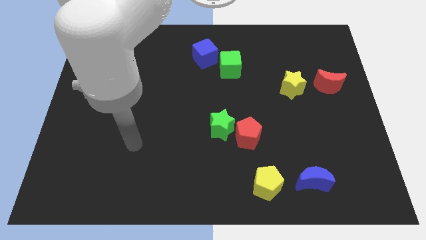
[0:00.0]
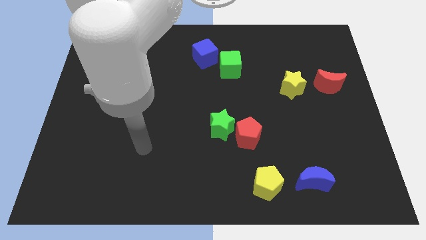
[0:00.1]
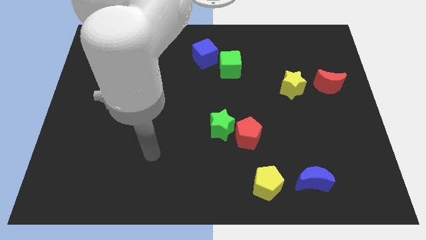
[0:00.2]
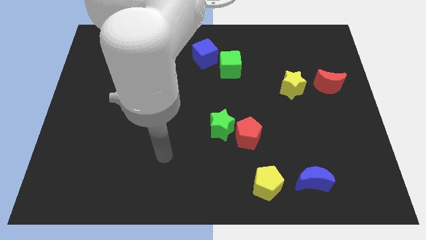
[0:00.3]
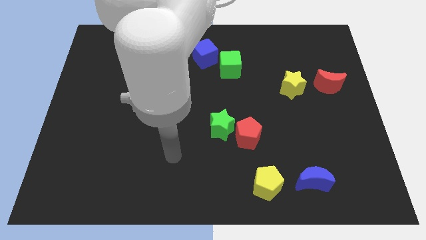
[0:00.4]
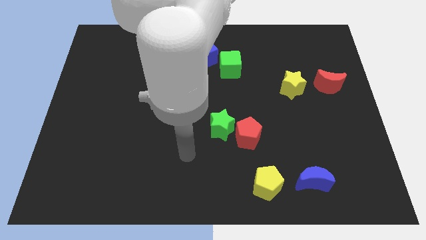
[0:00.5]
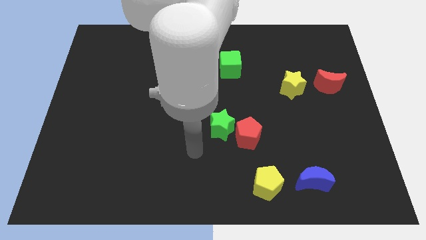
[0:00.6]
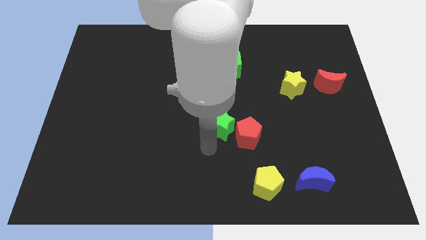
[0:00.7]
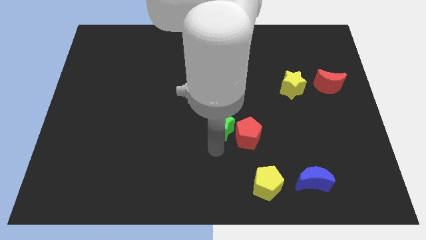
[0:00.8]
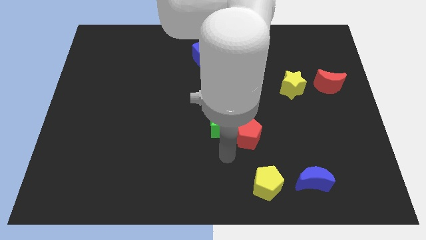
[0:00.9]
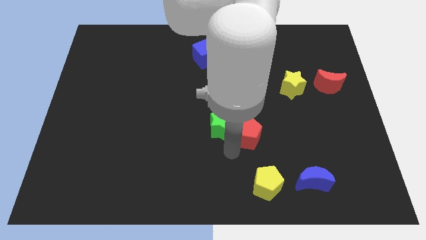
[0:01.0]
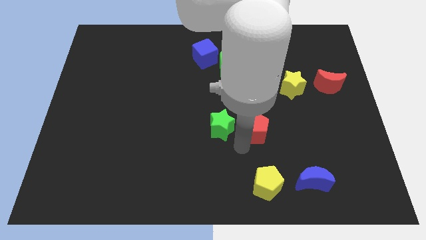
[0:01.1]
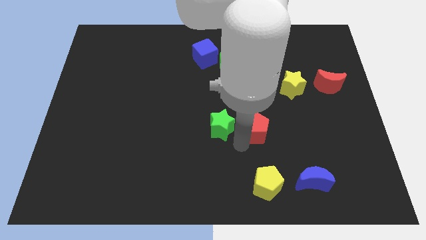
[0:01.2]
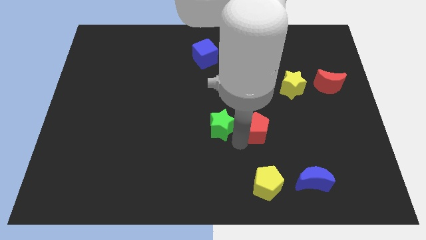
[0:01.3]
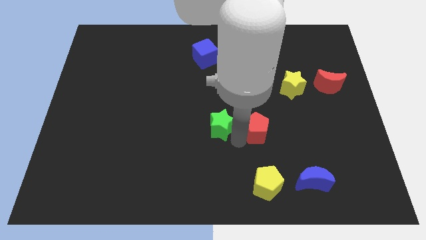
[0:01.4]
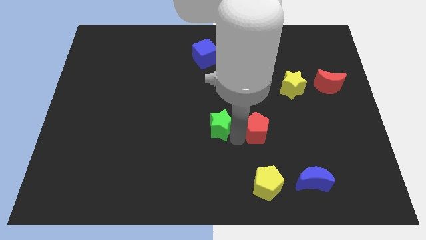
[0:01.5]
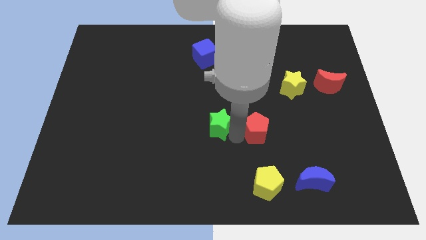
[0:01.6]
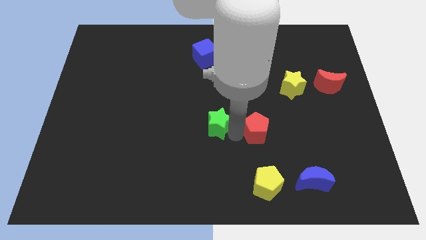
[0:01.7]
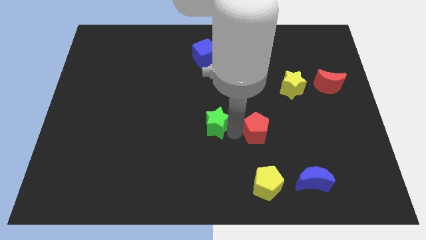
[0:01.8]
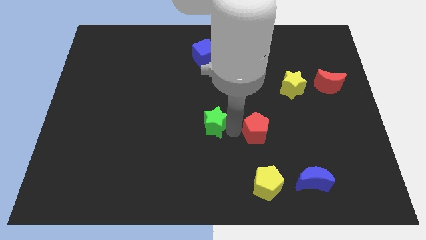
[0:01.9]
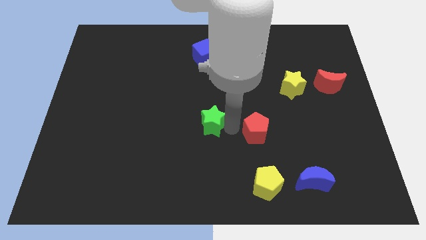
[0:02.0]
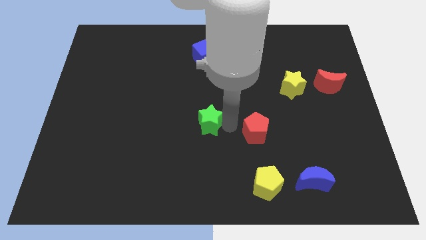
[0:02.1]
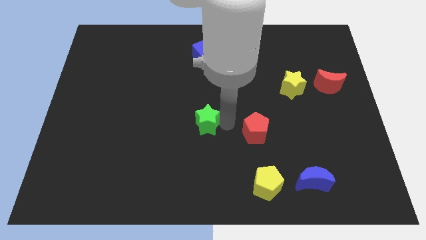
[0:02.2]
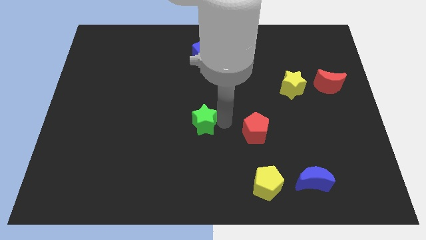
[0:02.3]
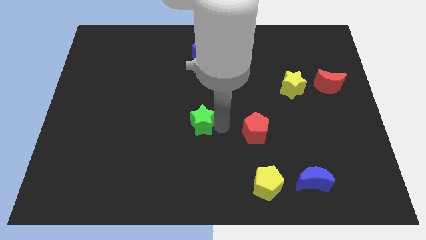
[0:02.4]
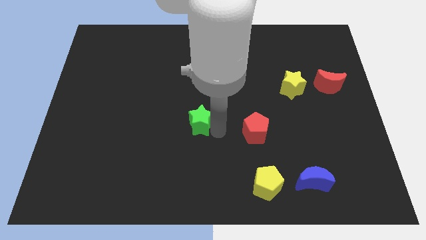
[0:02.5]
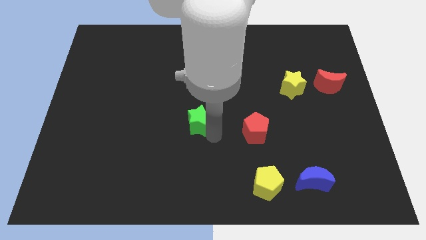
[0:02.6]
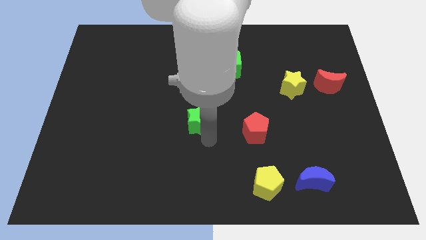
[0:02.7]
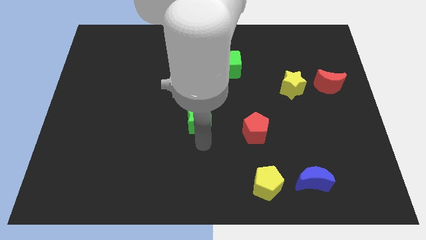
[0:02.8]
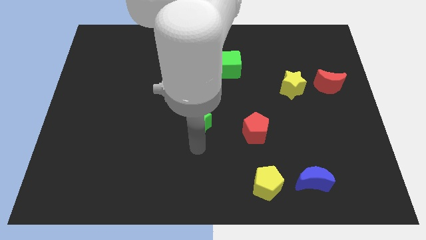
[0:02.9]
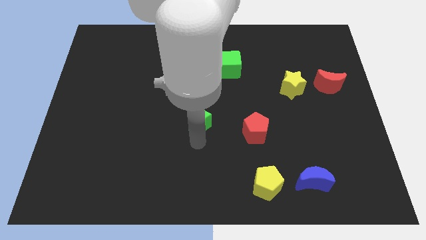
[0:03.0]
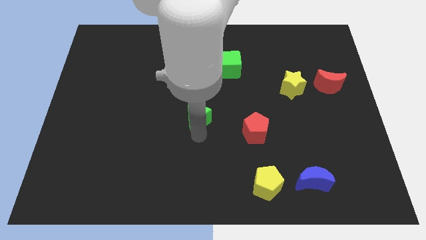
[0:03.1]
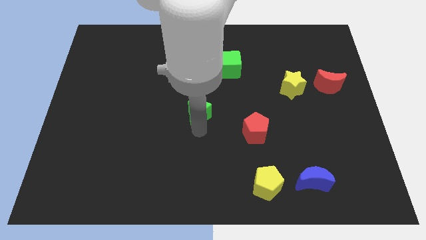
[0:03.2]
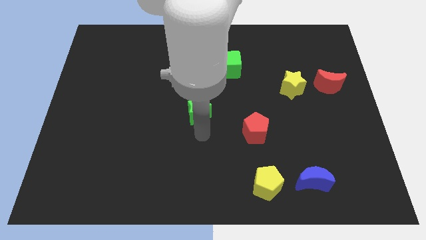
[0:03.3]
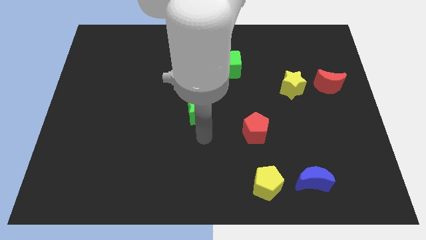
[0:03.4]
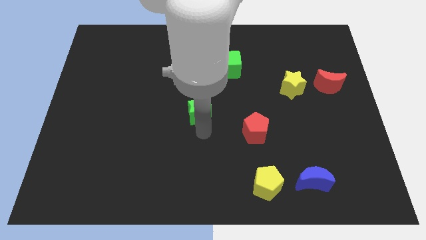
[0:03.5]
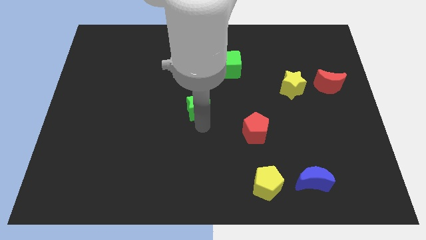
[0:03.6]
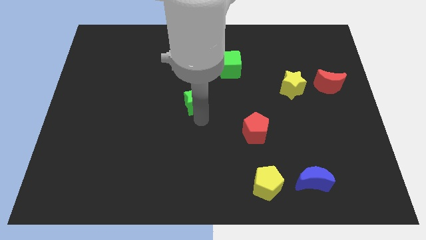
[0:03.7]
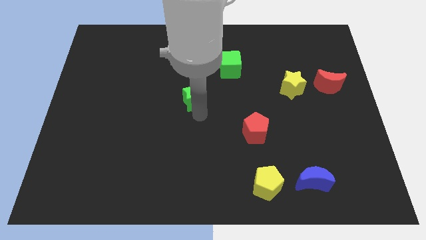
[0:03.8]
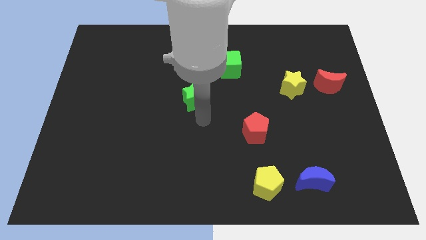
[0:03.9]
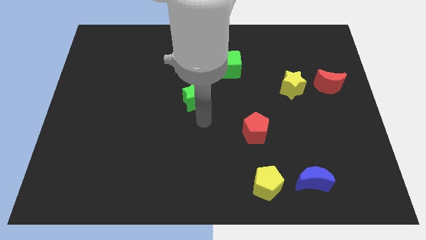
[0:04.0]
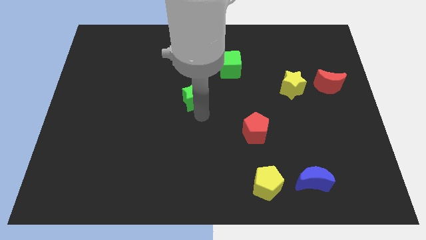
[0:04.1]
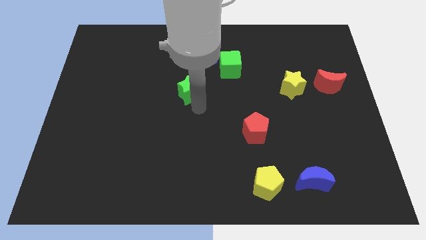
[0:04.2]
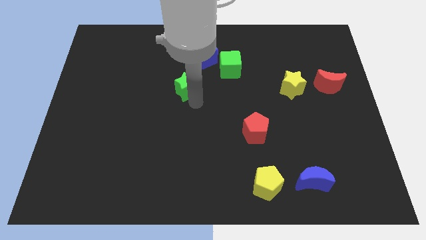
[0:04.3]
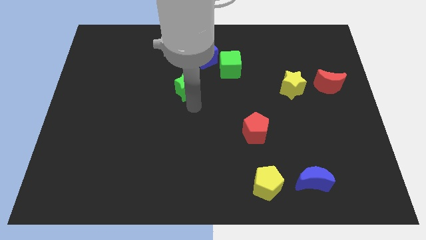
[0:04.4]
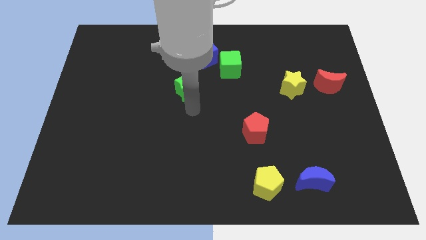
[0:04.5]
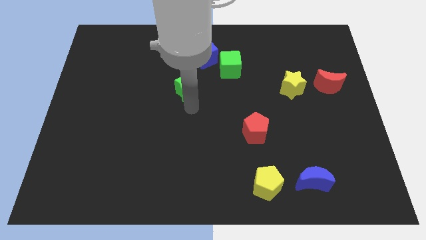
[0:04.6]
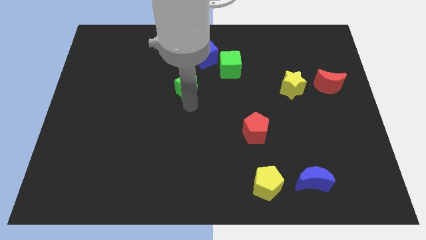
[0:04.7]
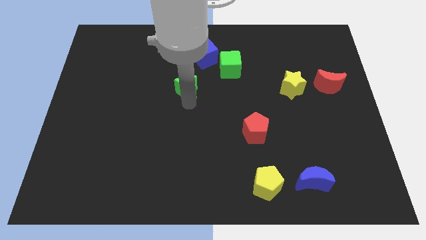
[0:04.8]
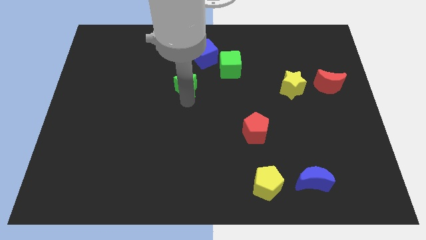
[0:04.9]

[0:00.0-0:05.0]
put the green star diagonally down and to the left of the blue cube

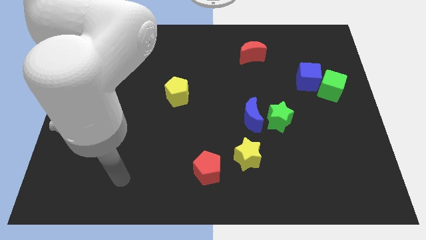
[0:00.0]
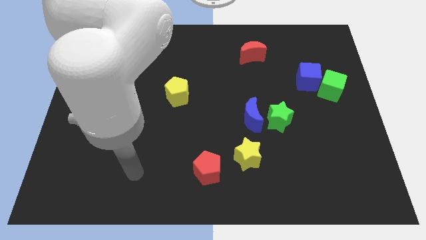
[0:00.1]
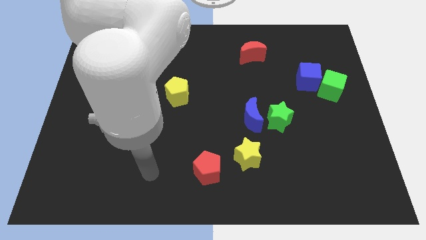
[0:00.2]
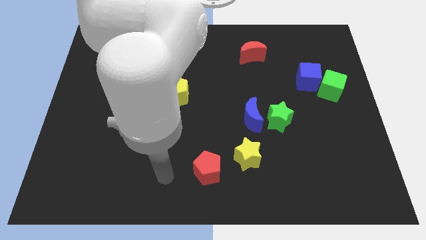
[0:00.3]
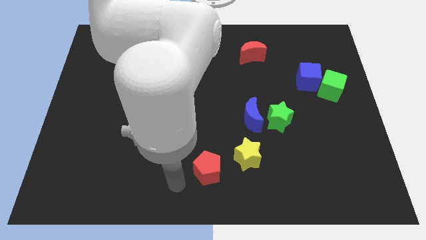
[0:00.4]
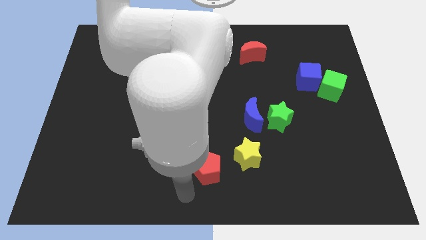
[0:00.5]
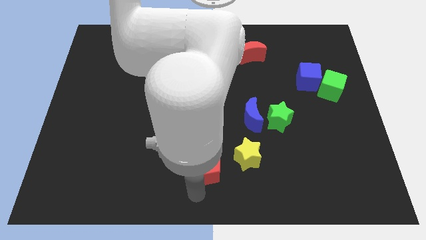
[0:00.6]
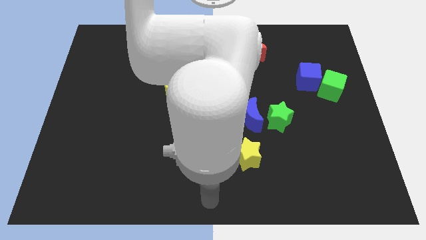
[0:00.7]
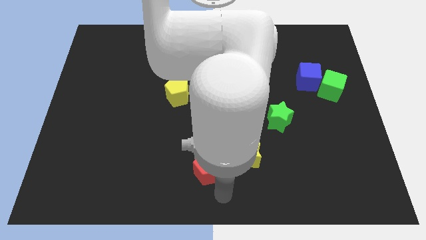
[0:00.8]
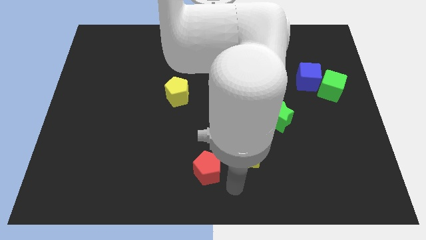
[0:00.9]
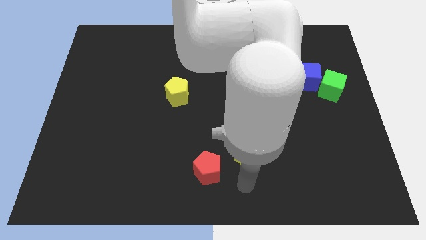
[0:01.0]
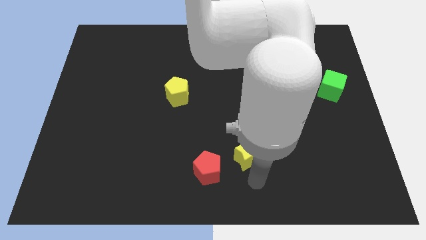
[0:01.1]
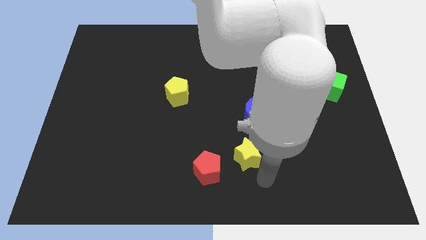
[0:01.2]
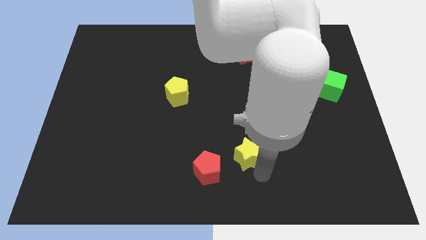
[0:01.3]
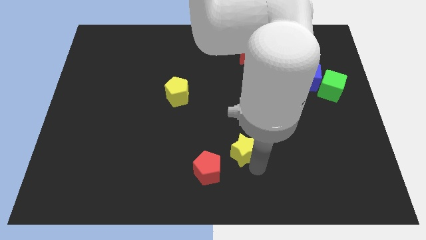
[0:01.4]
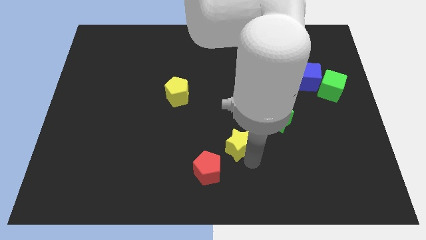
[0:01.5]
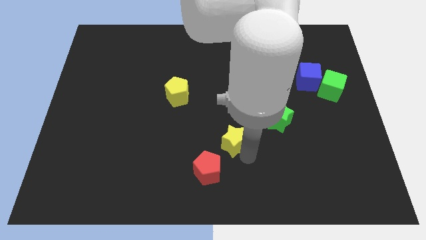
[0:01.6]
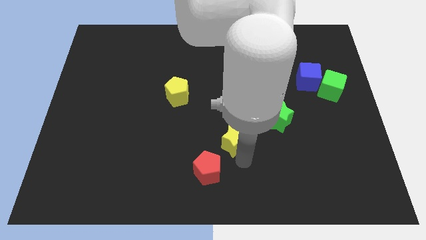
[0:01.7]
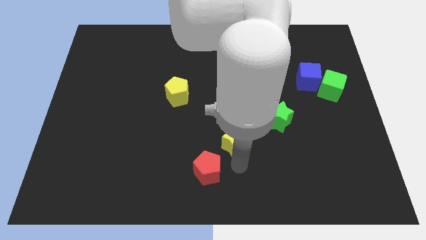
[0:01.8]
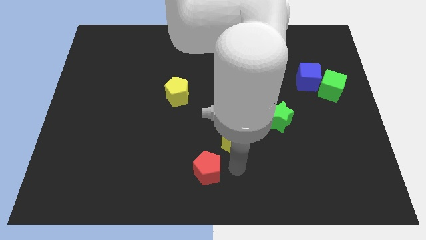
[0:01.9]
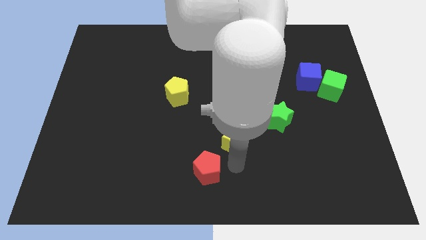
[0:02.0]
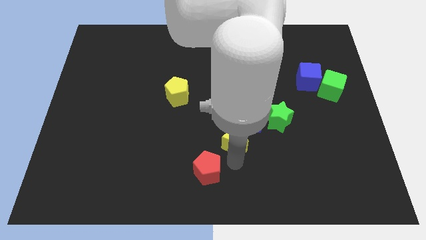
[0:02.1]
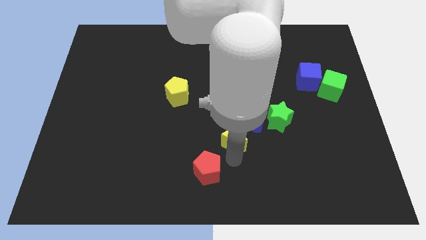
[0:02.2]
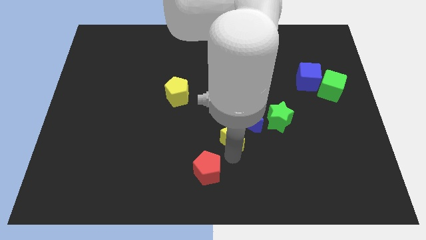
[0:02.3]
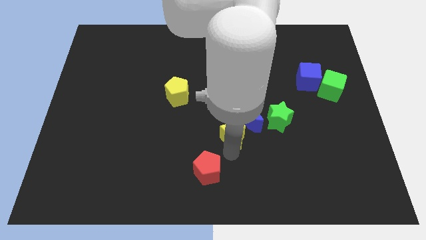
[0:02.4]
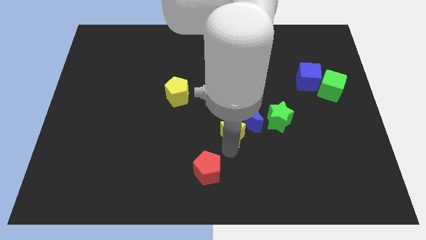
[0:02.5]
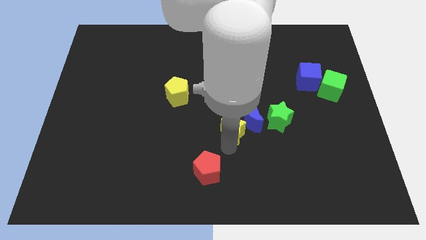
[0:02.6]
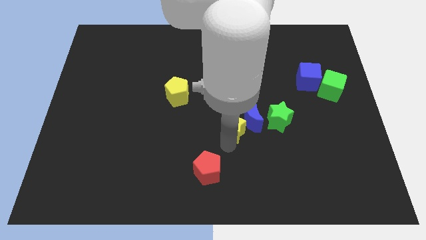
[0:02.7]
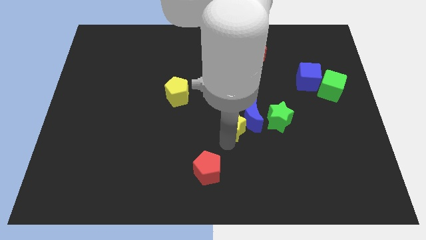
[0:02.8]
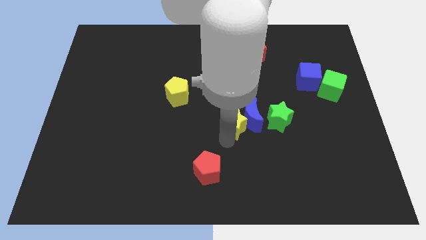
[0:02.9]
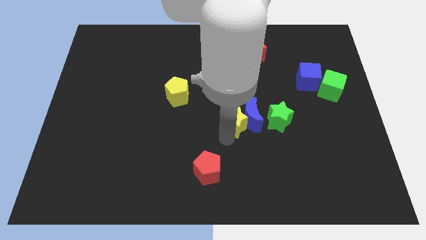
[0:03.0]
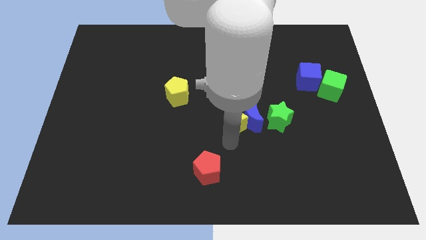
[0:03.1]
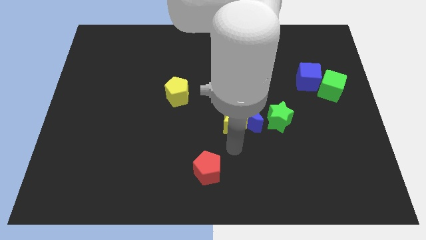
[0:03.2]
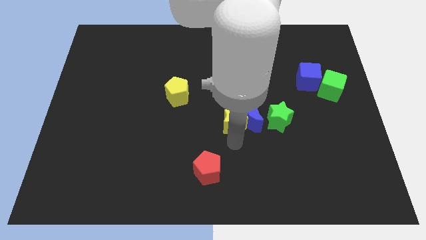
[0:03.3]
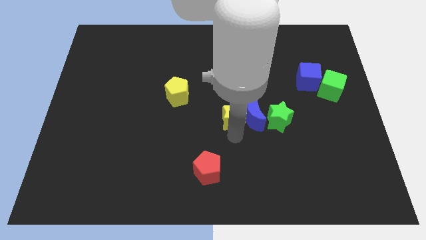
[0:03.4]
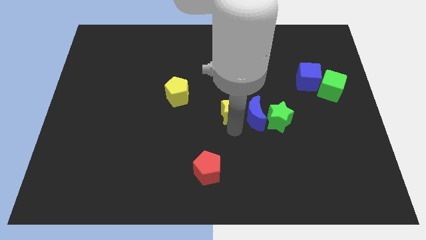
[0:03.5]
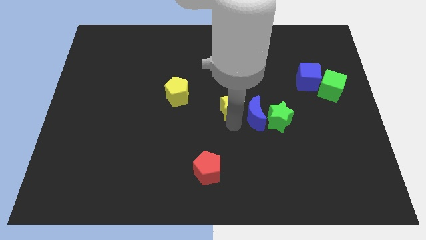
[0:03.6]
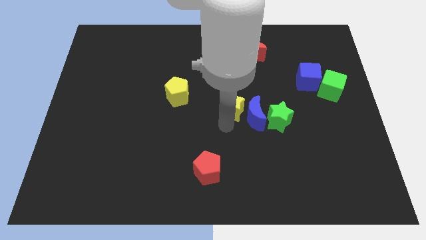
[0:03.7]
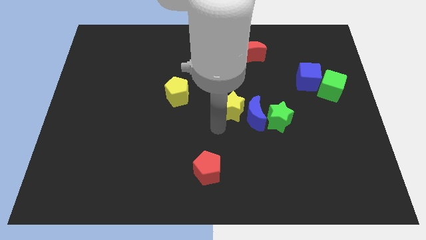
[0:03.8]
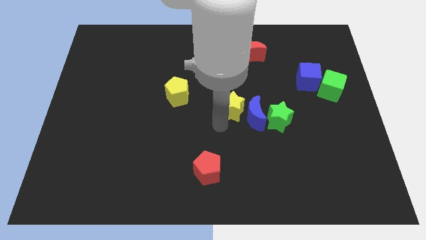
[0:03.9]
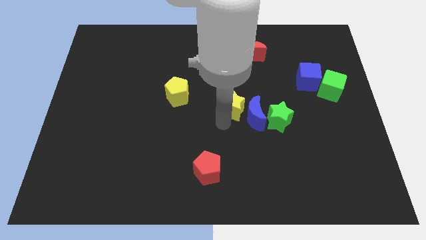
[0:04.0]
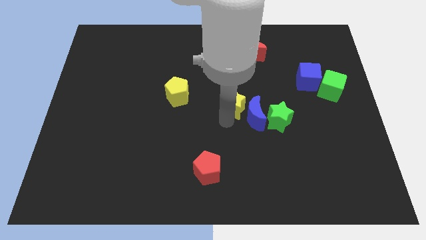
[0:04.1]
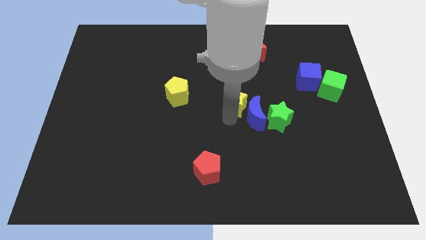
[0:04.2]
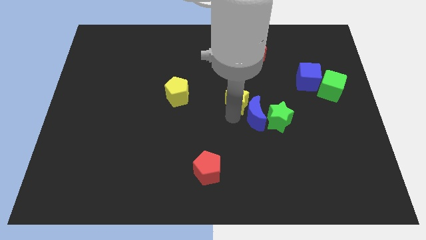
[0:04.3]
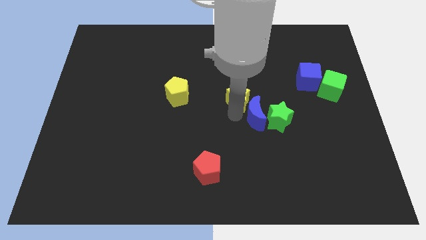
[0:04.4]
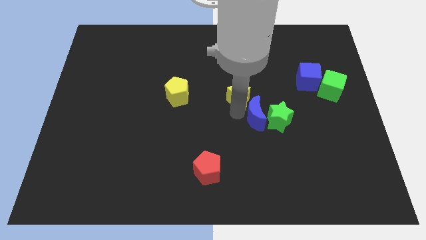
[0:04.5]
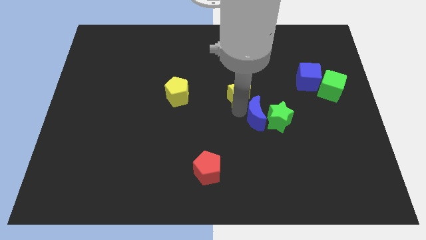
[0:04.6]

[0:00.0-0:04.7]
move the yellow star to the bottom of the red moon
